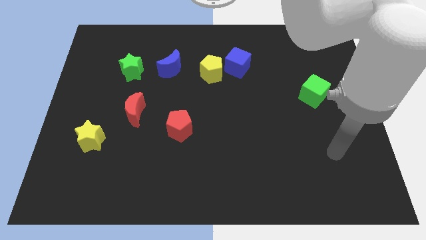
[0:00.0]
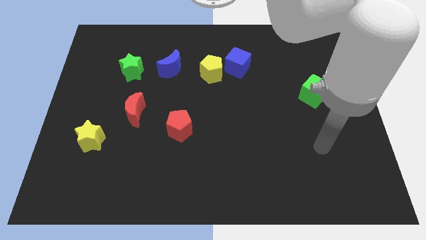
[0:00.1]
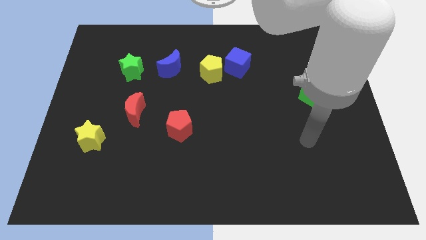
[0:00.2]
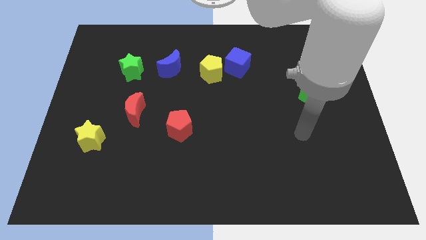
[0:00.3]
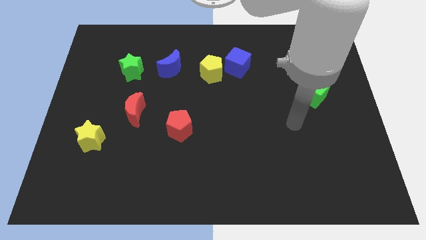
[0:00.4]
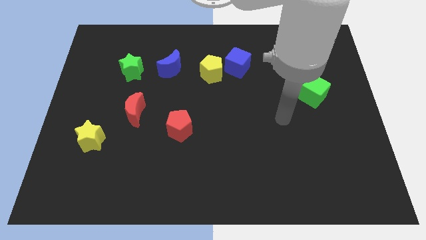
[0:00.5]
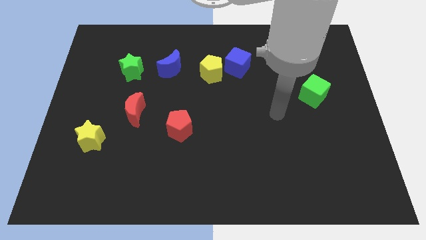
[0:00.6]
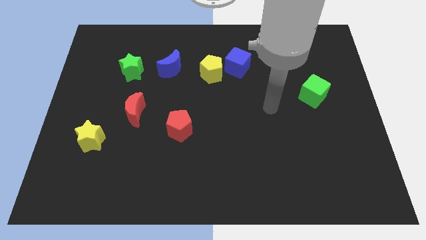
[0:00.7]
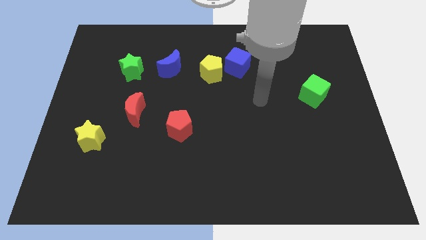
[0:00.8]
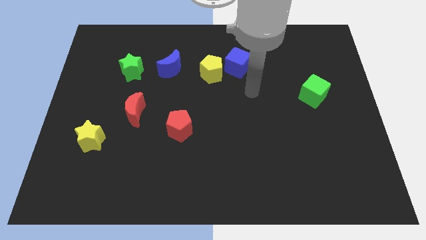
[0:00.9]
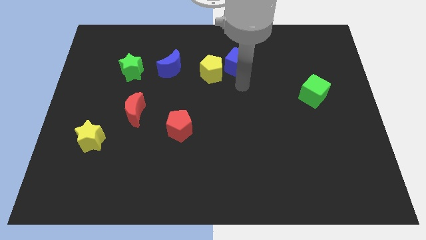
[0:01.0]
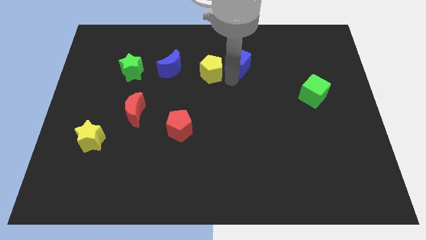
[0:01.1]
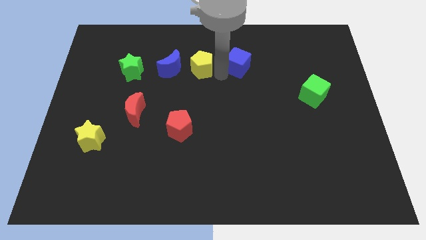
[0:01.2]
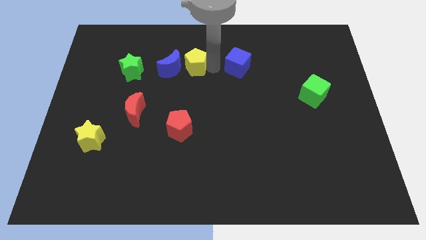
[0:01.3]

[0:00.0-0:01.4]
move the blue cube away from the yellow pentagon

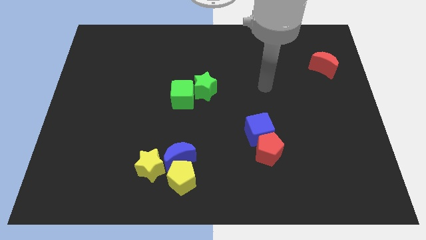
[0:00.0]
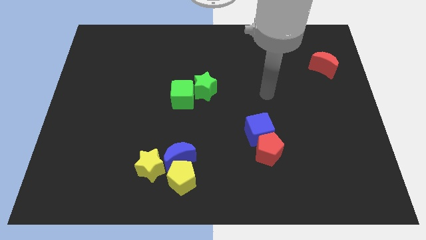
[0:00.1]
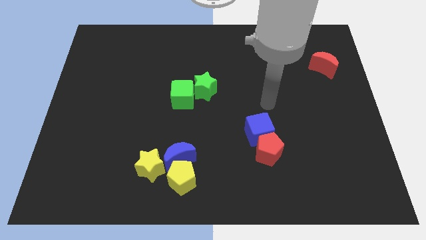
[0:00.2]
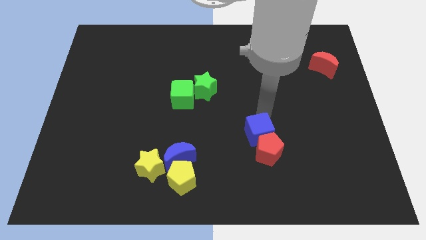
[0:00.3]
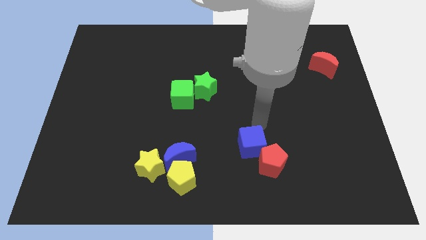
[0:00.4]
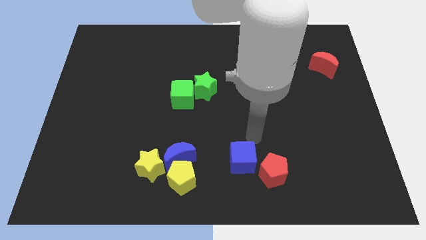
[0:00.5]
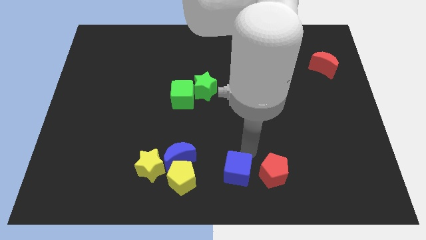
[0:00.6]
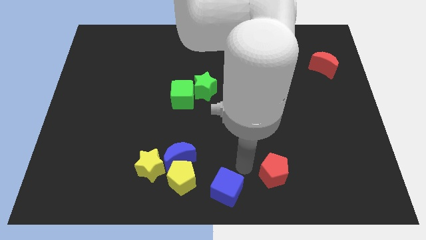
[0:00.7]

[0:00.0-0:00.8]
separate the red pentagon from the blue cube

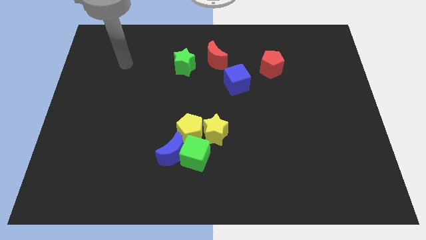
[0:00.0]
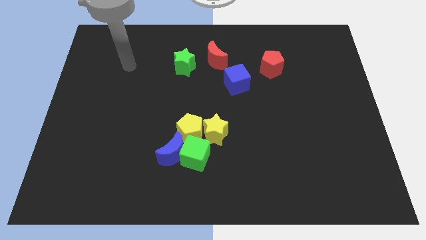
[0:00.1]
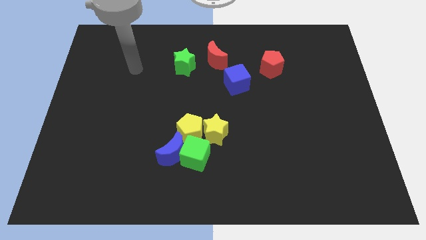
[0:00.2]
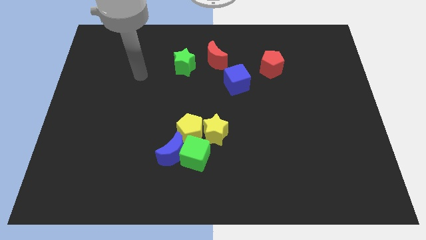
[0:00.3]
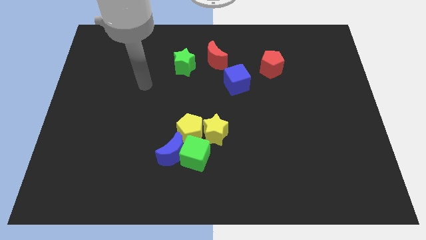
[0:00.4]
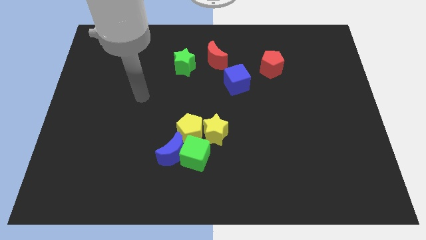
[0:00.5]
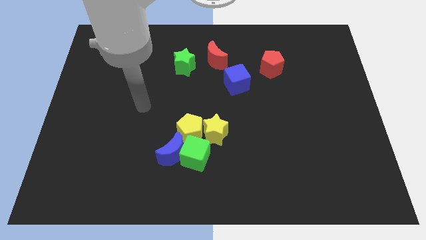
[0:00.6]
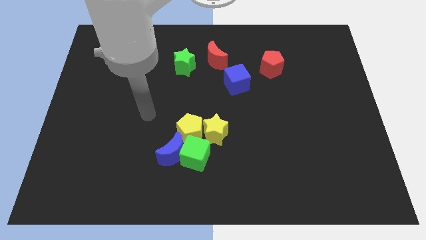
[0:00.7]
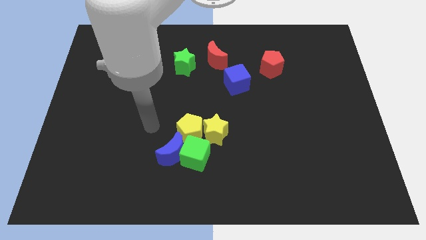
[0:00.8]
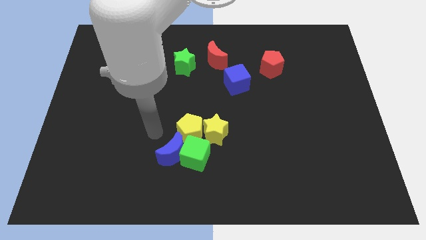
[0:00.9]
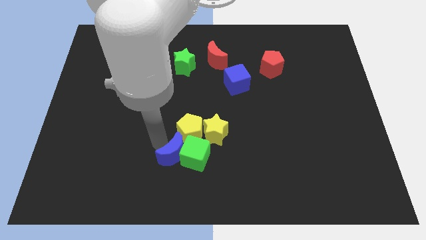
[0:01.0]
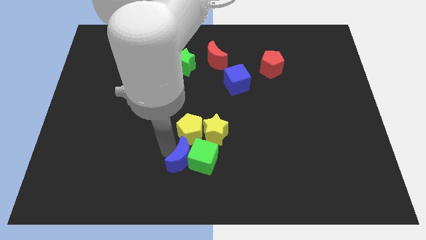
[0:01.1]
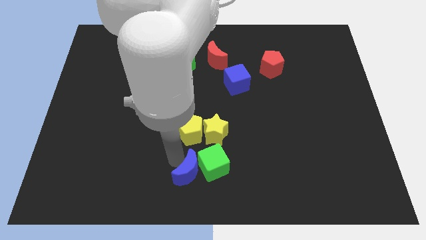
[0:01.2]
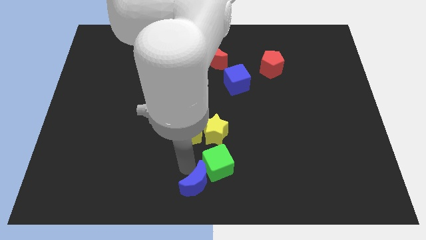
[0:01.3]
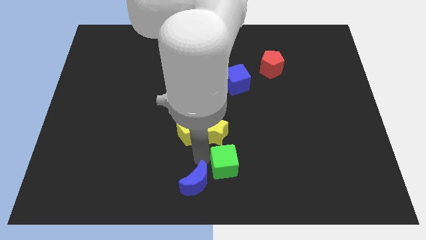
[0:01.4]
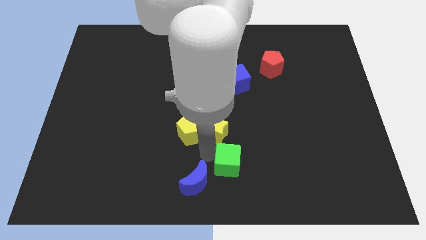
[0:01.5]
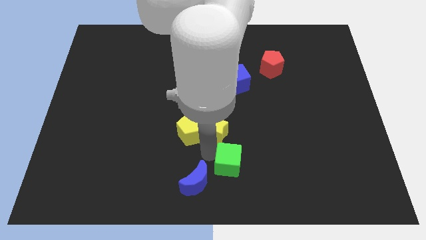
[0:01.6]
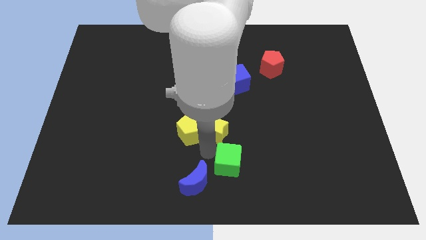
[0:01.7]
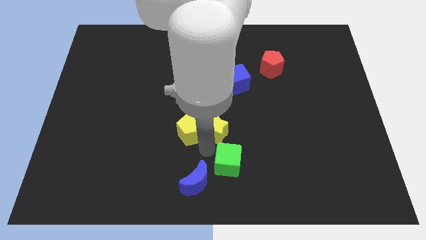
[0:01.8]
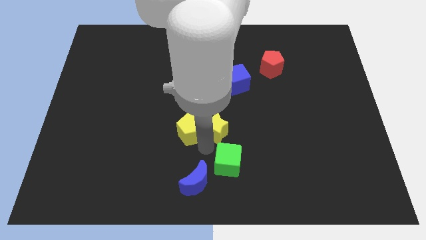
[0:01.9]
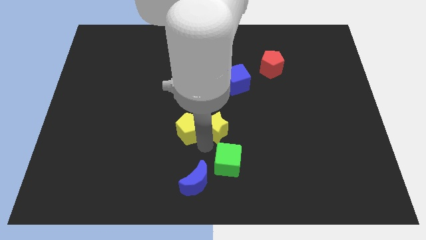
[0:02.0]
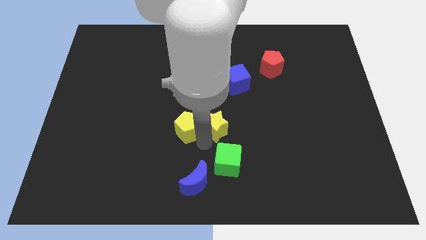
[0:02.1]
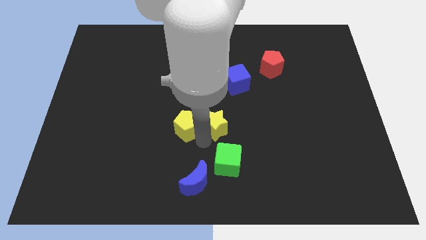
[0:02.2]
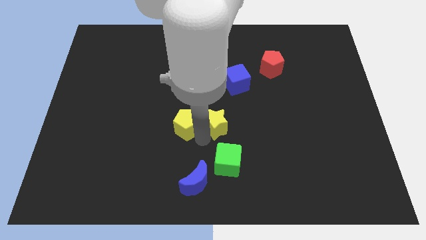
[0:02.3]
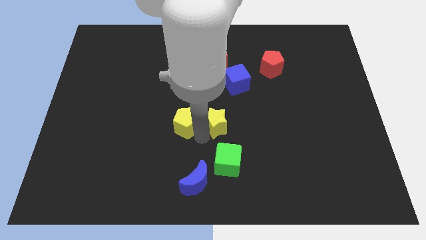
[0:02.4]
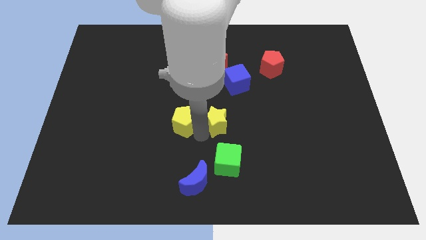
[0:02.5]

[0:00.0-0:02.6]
separate the yellow pentagon from the clump

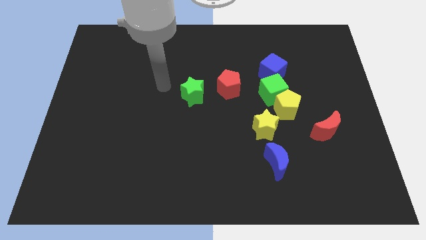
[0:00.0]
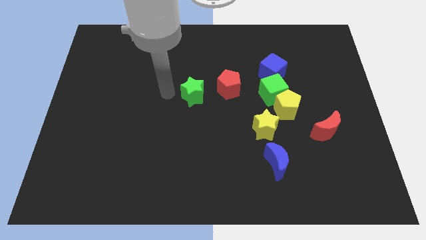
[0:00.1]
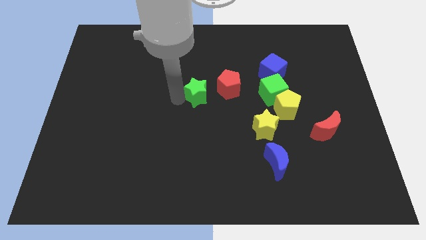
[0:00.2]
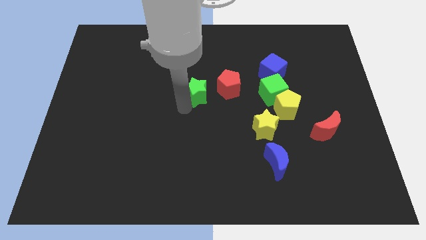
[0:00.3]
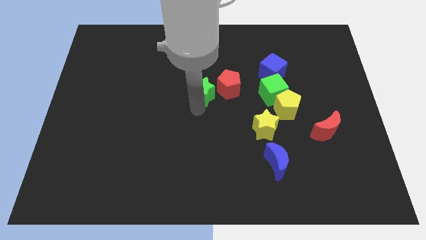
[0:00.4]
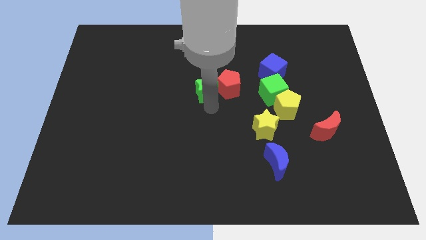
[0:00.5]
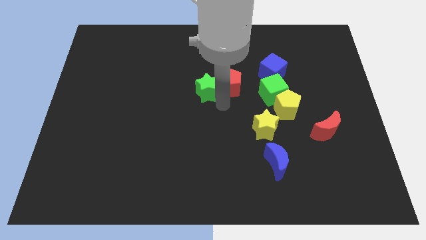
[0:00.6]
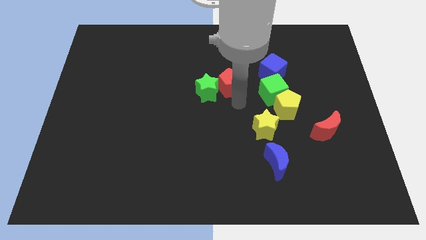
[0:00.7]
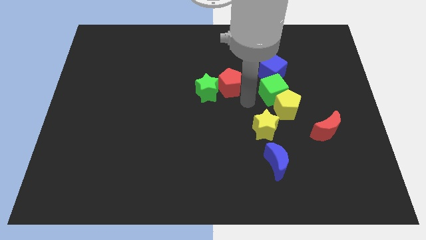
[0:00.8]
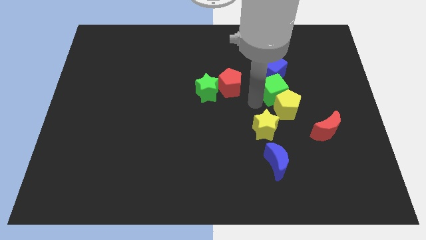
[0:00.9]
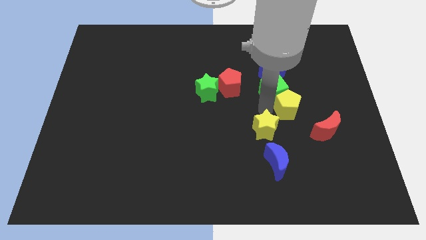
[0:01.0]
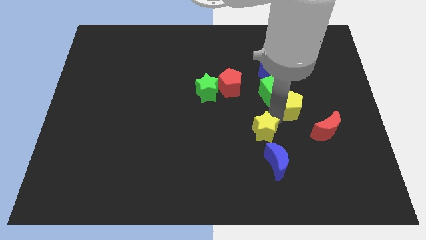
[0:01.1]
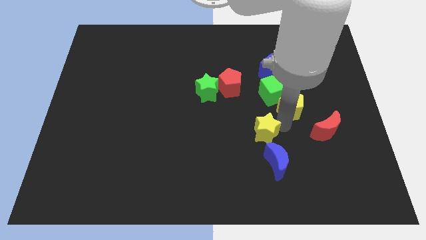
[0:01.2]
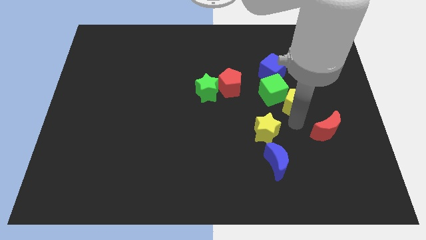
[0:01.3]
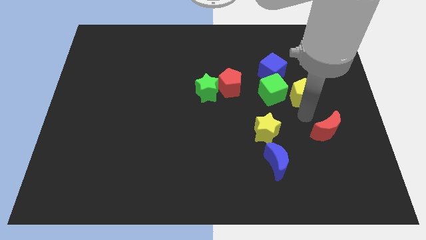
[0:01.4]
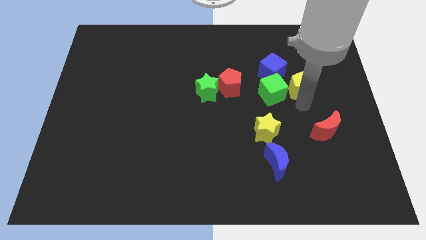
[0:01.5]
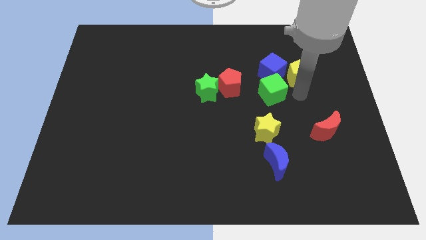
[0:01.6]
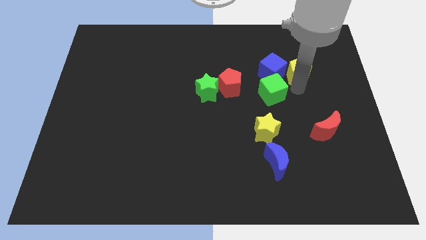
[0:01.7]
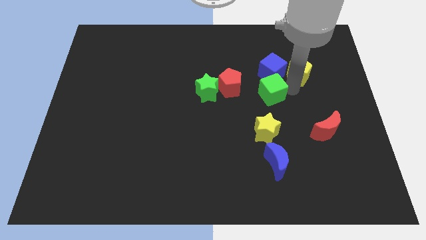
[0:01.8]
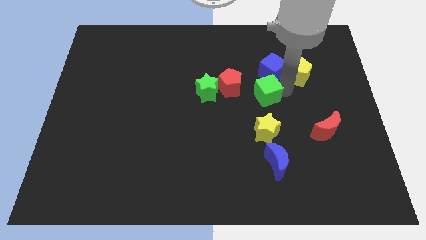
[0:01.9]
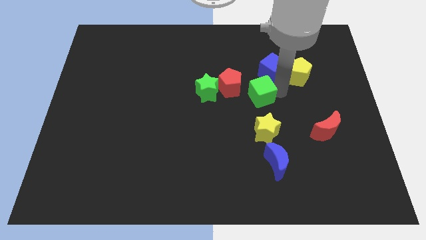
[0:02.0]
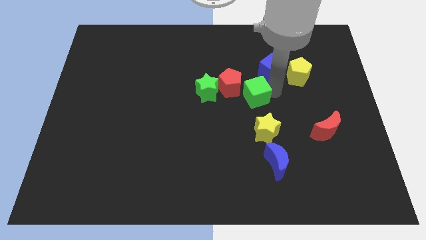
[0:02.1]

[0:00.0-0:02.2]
pull the green cube apart from the yellow pentagon and blue cube

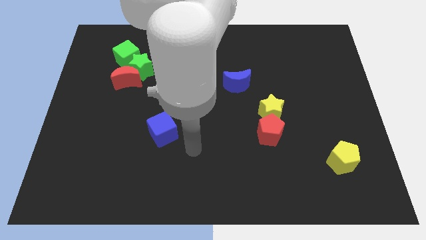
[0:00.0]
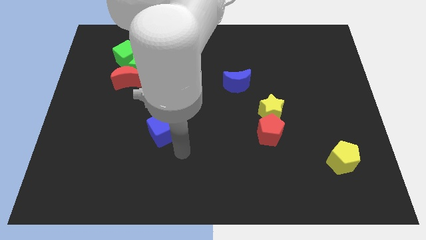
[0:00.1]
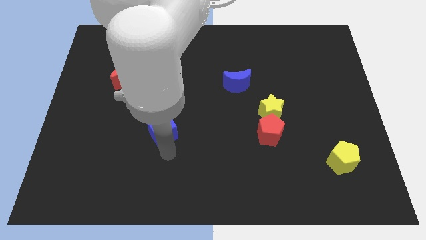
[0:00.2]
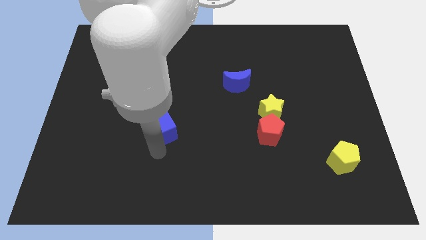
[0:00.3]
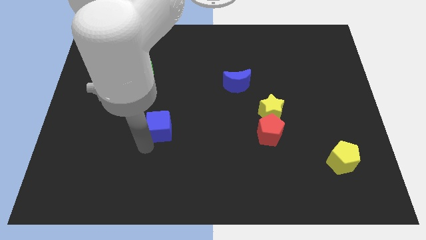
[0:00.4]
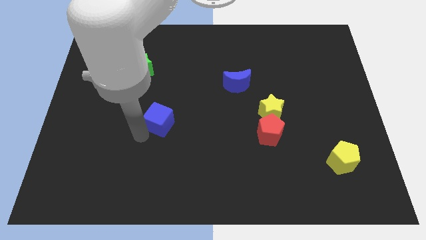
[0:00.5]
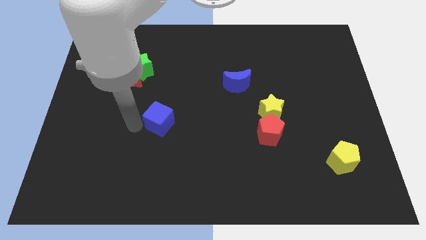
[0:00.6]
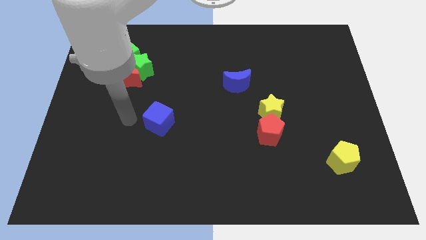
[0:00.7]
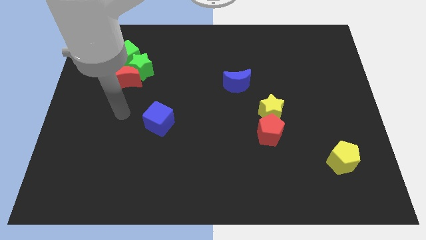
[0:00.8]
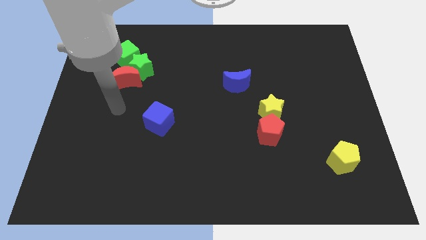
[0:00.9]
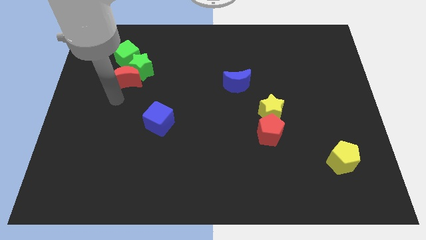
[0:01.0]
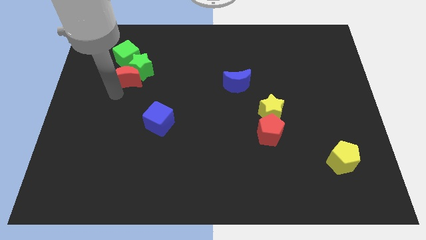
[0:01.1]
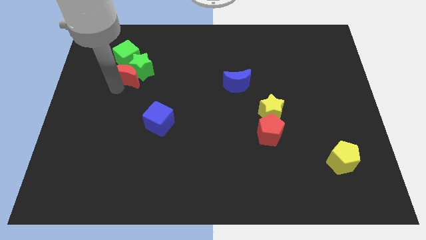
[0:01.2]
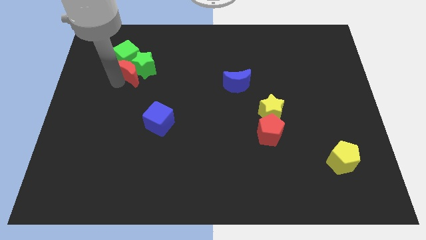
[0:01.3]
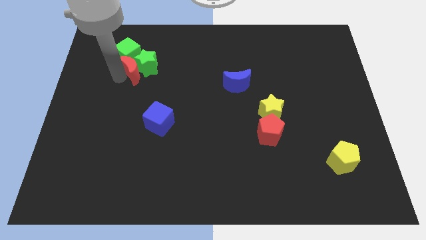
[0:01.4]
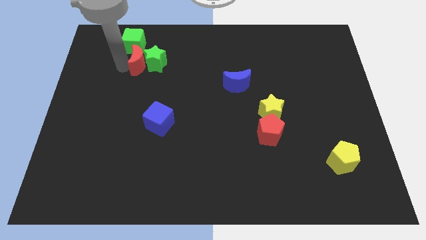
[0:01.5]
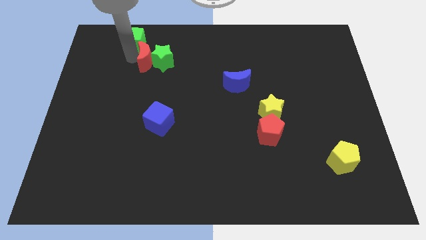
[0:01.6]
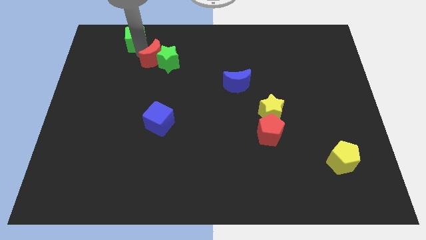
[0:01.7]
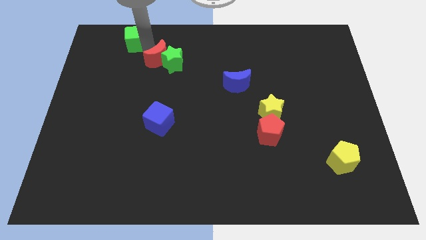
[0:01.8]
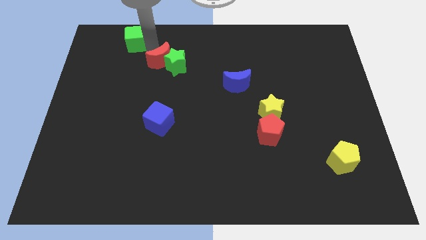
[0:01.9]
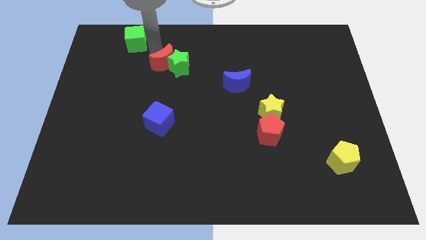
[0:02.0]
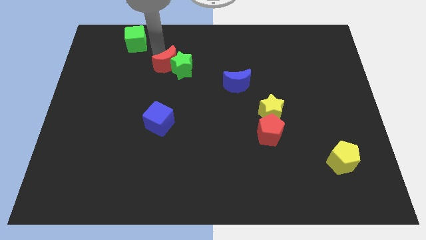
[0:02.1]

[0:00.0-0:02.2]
pull the green star apart from the red moon and green cube

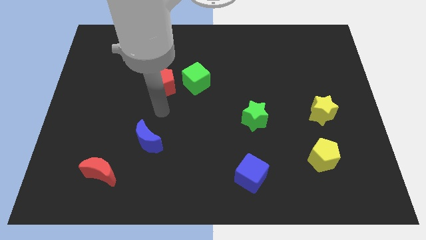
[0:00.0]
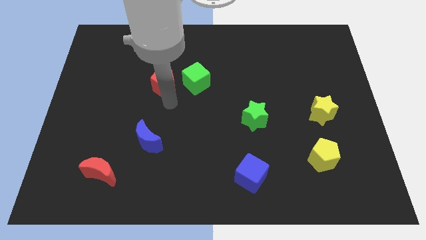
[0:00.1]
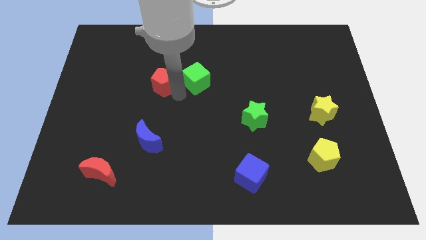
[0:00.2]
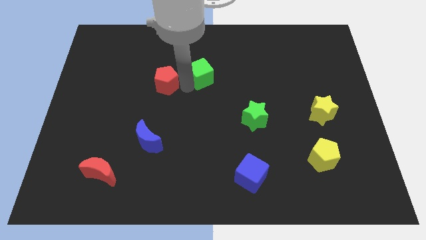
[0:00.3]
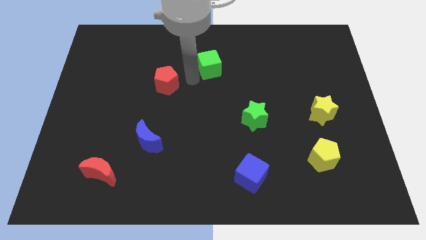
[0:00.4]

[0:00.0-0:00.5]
pull the red pentagon apart from the green cube
